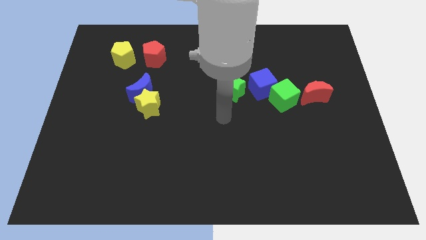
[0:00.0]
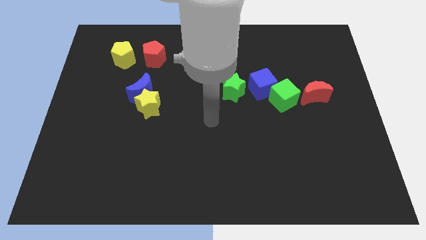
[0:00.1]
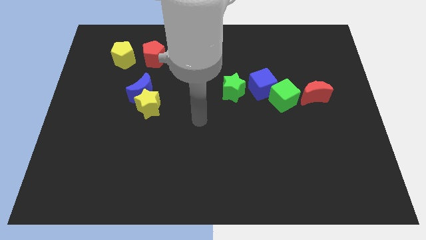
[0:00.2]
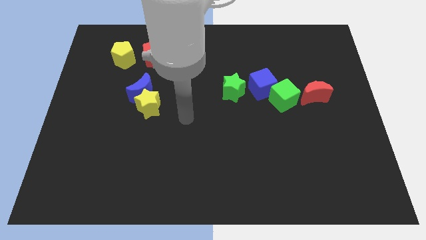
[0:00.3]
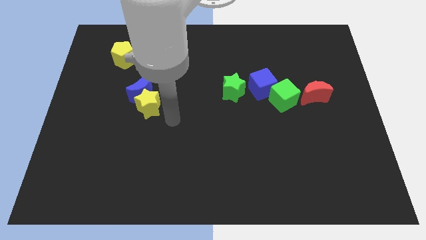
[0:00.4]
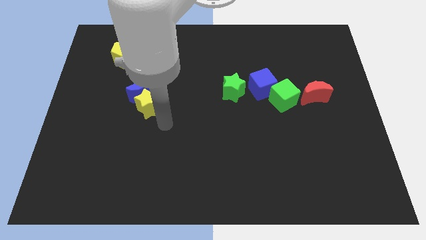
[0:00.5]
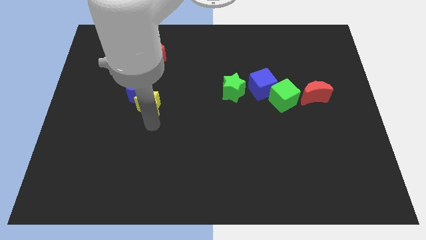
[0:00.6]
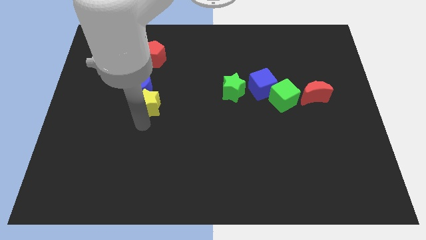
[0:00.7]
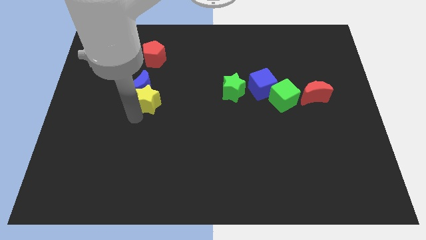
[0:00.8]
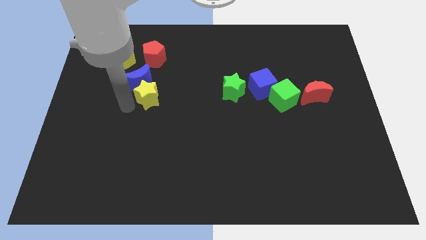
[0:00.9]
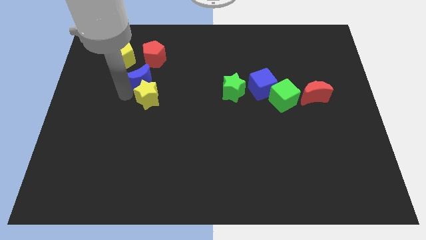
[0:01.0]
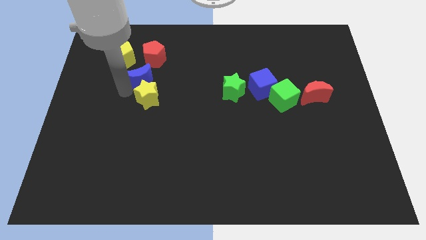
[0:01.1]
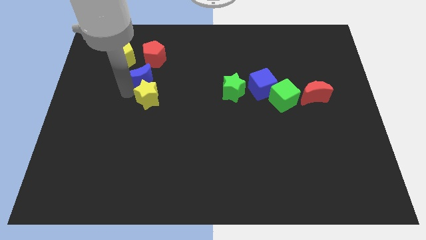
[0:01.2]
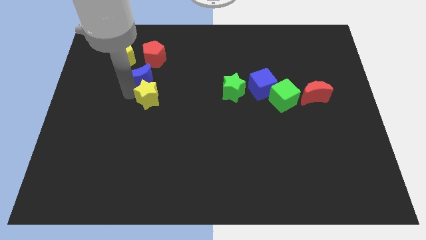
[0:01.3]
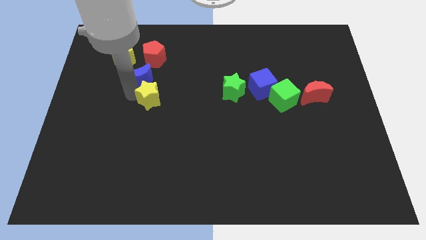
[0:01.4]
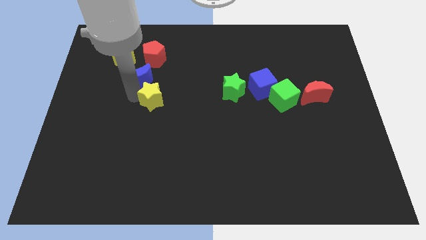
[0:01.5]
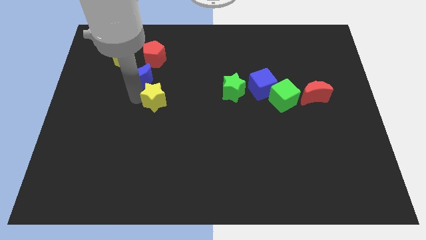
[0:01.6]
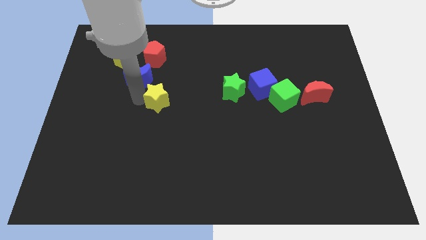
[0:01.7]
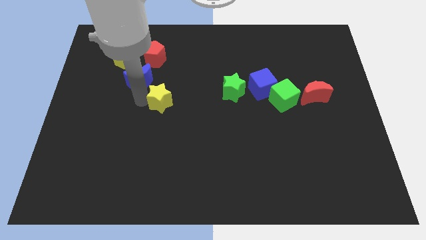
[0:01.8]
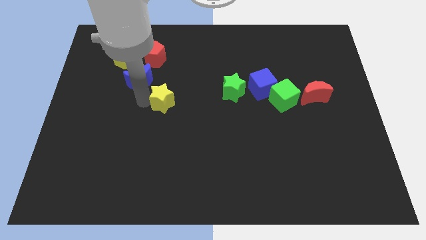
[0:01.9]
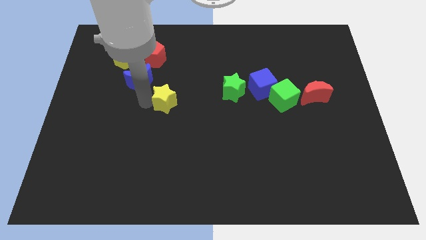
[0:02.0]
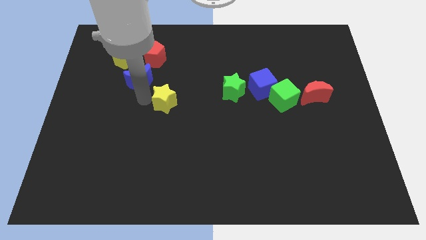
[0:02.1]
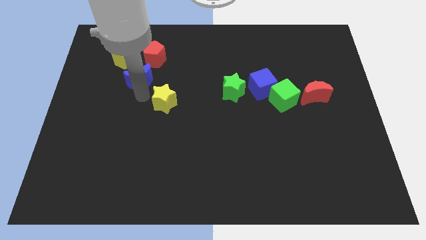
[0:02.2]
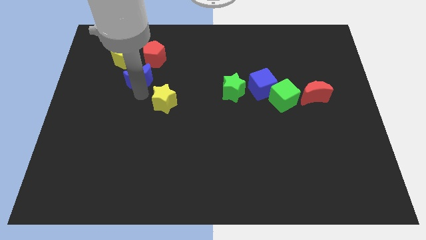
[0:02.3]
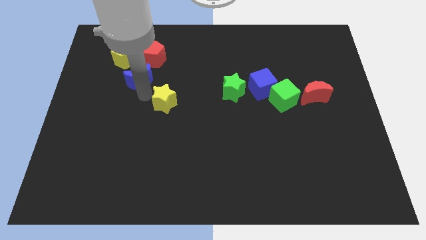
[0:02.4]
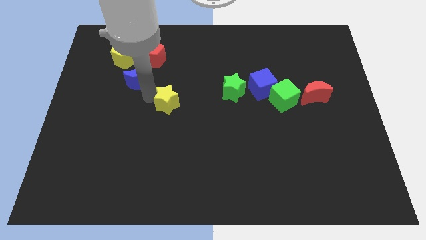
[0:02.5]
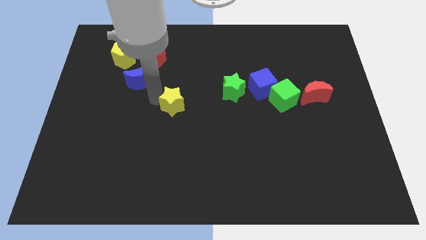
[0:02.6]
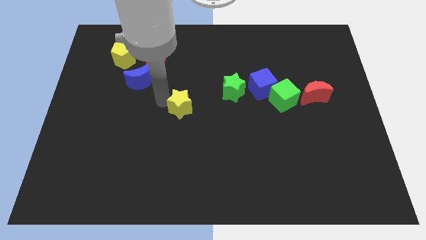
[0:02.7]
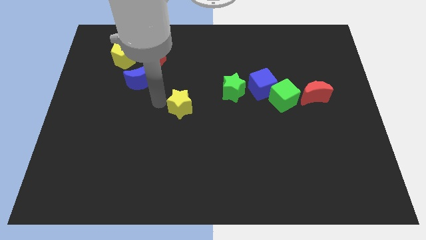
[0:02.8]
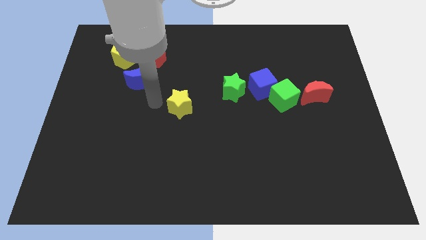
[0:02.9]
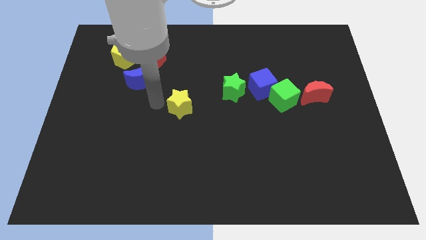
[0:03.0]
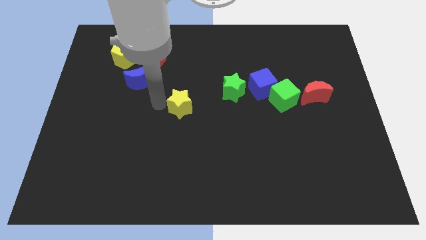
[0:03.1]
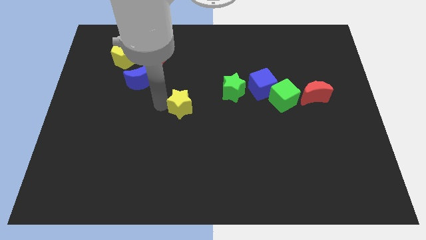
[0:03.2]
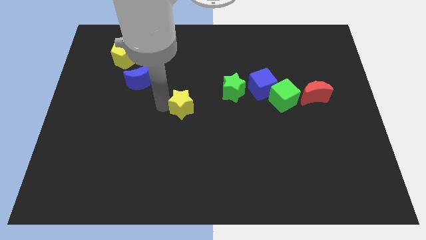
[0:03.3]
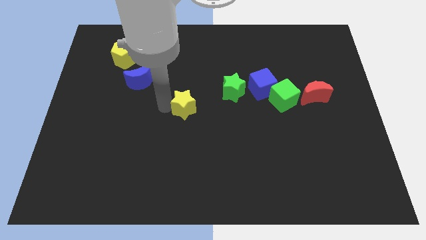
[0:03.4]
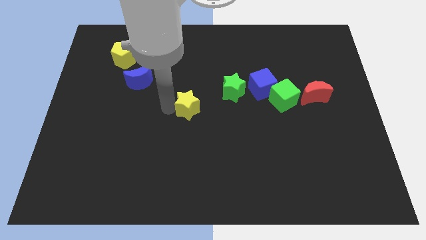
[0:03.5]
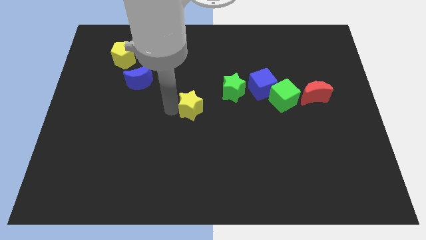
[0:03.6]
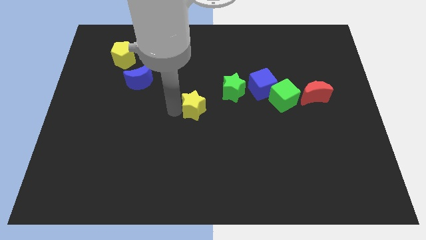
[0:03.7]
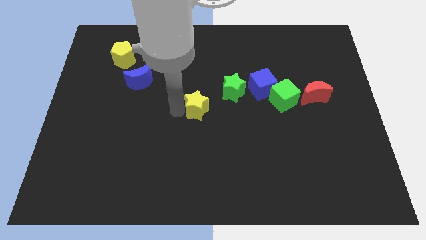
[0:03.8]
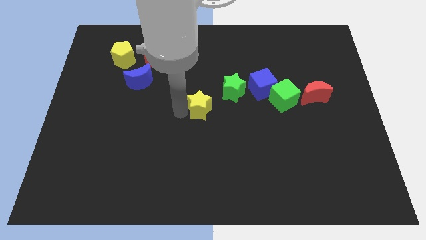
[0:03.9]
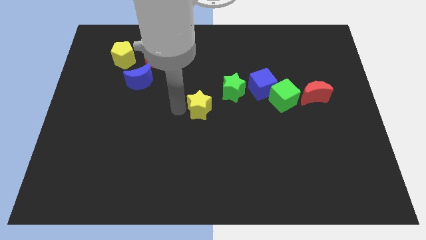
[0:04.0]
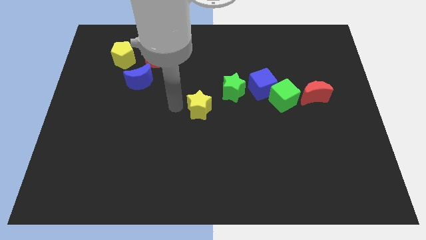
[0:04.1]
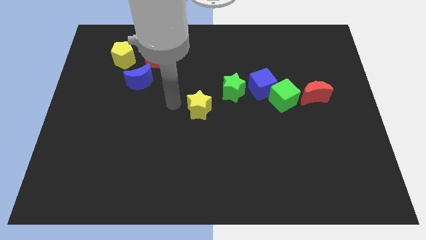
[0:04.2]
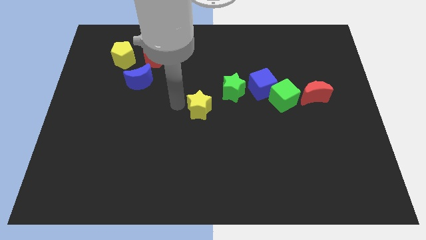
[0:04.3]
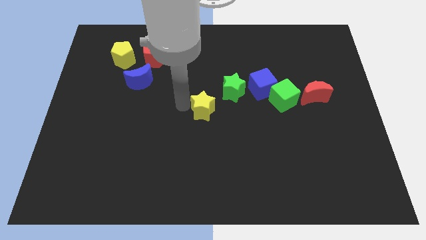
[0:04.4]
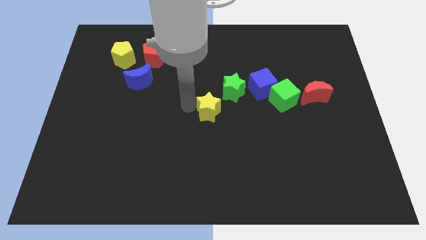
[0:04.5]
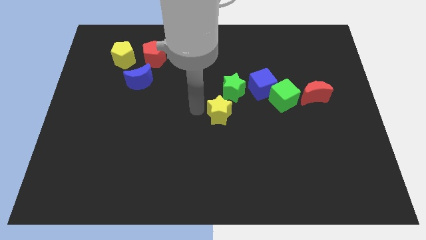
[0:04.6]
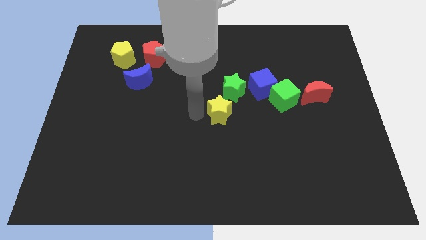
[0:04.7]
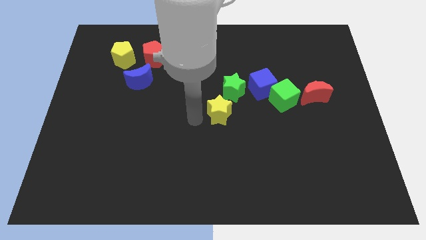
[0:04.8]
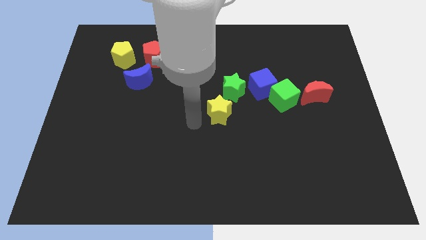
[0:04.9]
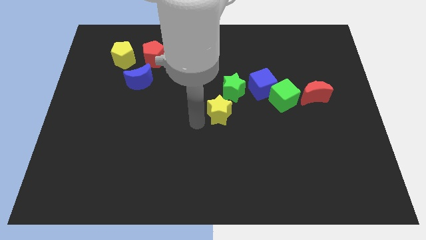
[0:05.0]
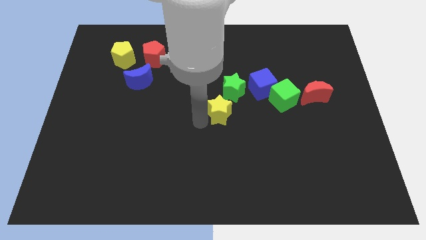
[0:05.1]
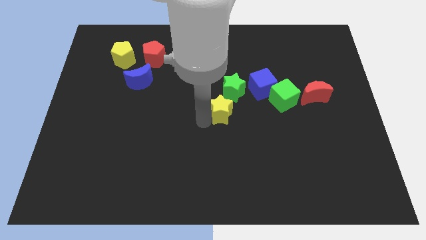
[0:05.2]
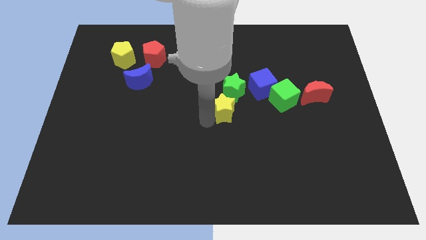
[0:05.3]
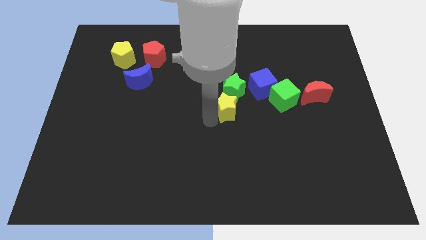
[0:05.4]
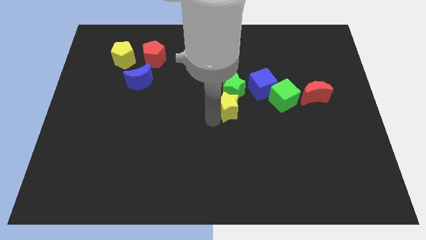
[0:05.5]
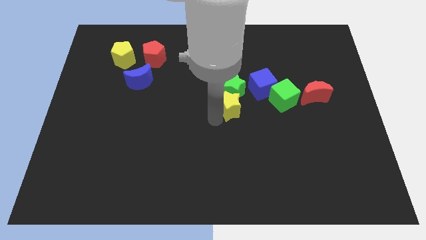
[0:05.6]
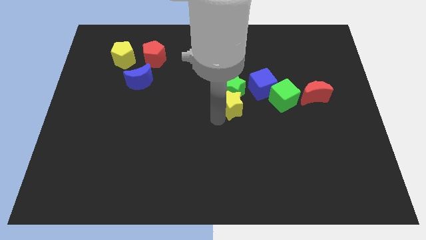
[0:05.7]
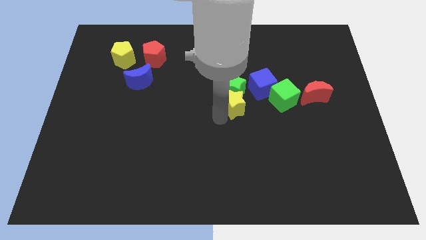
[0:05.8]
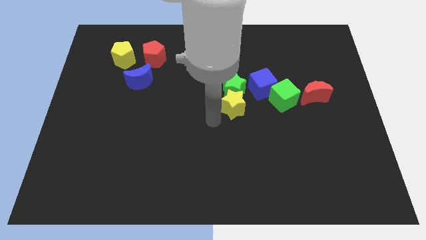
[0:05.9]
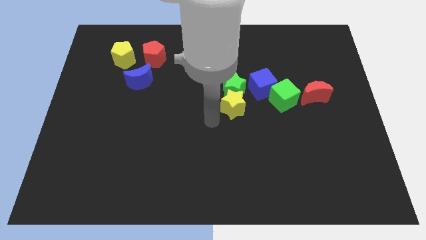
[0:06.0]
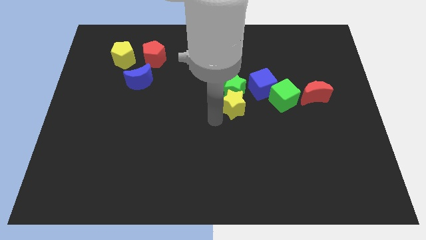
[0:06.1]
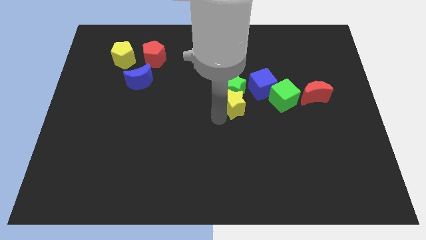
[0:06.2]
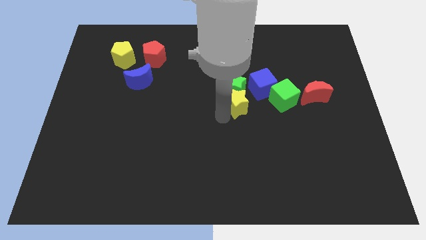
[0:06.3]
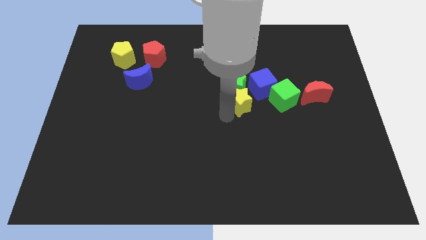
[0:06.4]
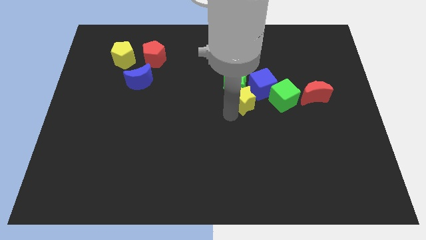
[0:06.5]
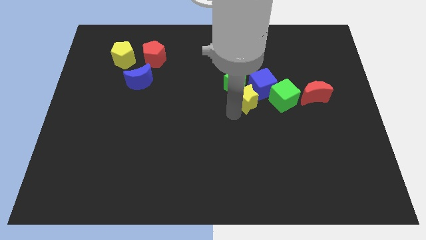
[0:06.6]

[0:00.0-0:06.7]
slide the yellow star next to the blue cube
